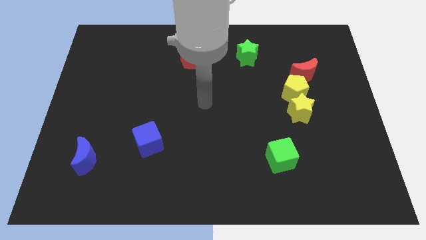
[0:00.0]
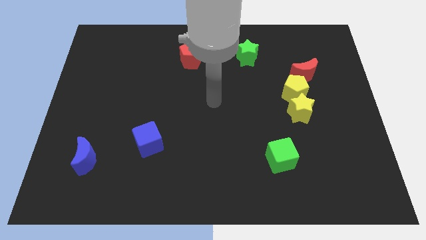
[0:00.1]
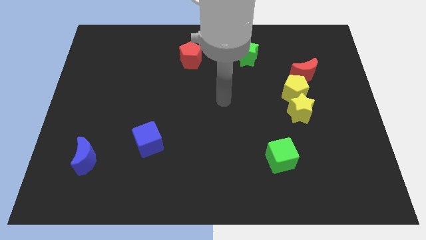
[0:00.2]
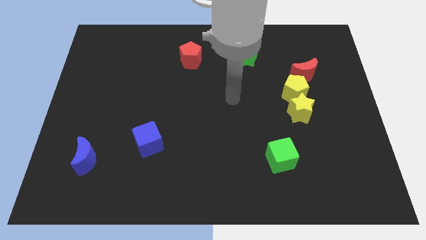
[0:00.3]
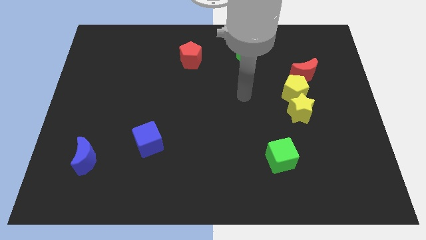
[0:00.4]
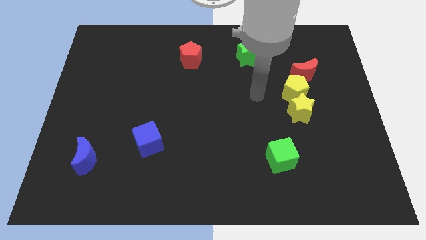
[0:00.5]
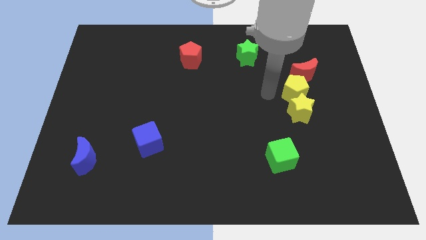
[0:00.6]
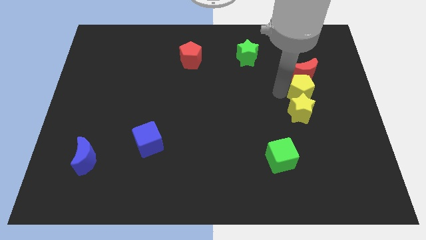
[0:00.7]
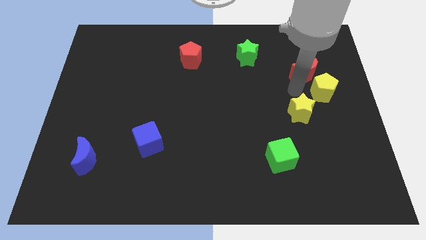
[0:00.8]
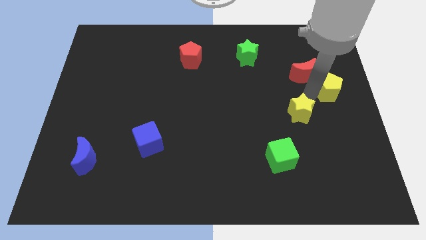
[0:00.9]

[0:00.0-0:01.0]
pull the yellow star apart from the yellow pentagon

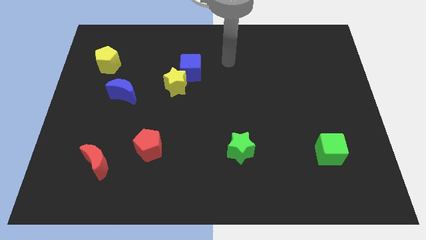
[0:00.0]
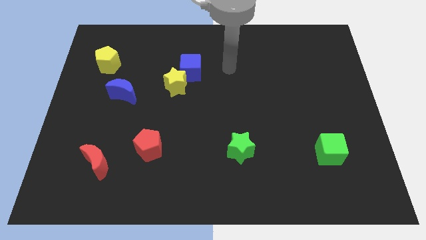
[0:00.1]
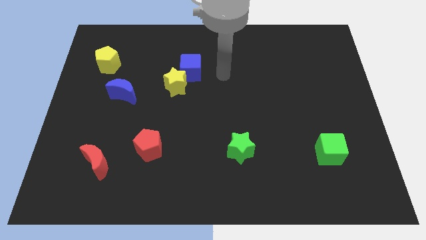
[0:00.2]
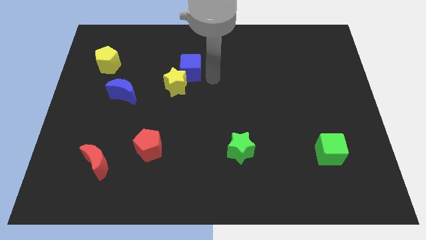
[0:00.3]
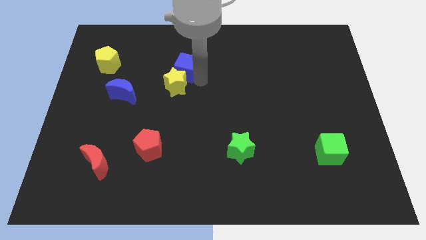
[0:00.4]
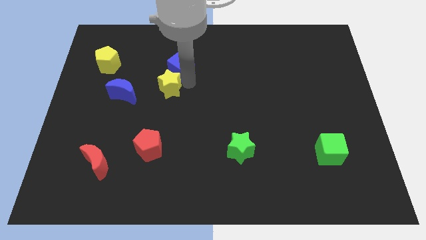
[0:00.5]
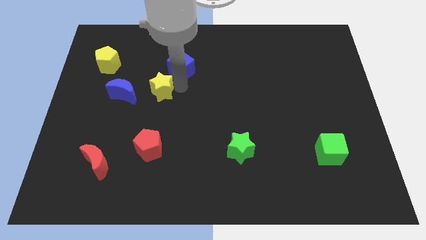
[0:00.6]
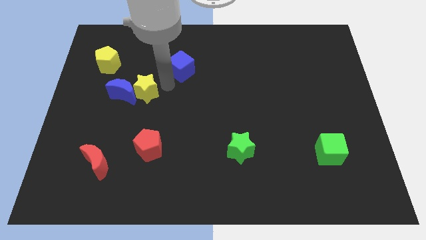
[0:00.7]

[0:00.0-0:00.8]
separate the blue cube from the yellow star

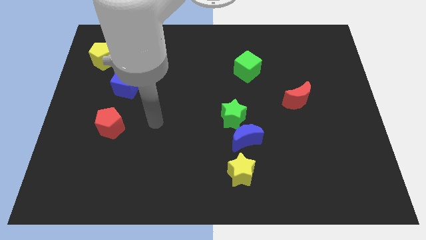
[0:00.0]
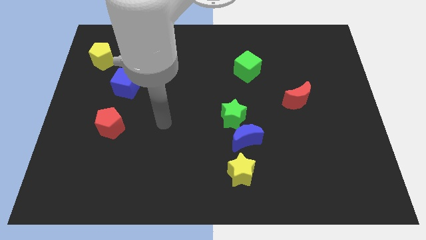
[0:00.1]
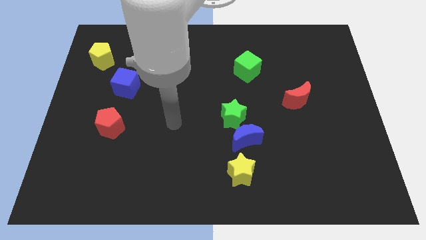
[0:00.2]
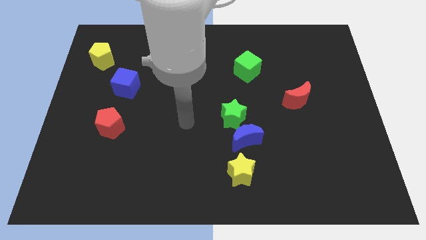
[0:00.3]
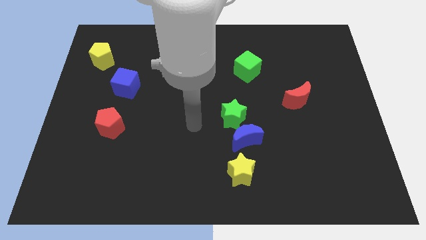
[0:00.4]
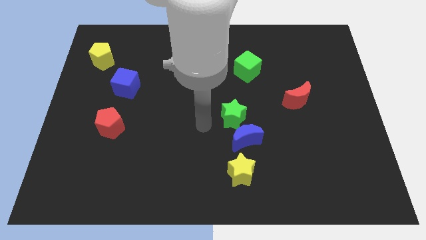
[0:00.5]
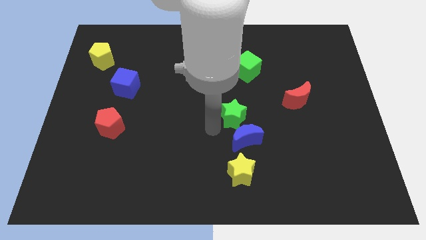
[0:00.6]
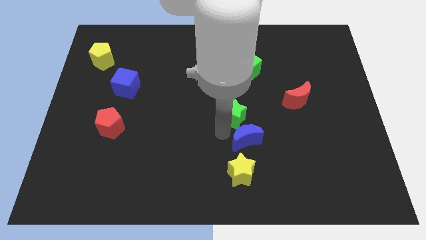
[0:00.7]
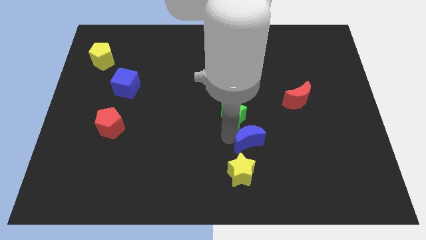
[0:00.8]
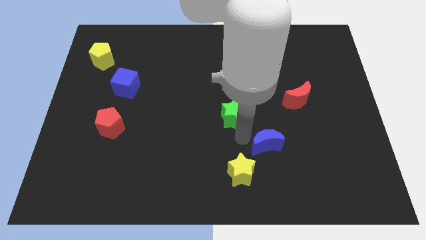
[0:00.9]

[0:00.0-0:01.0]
move the green star away from the blue moon

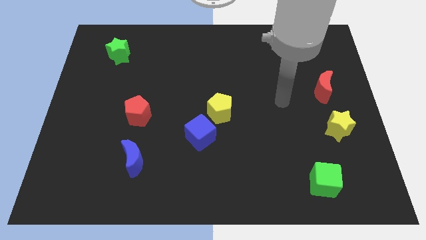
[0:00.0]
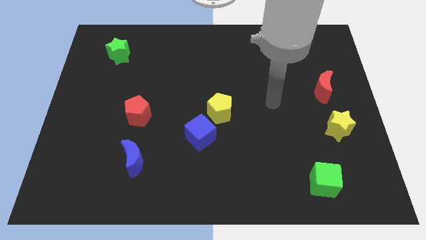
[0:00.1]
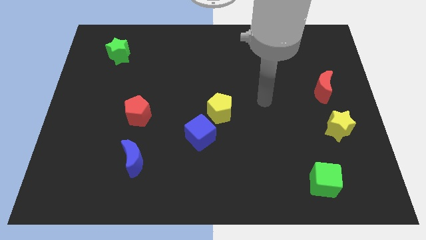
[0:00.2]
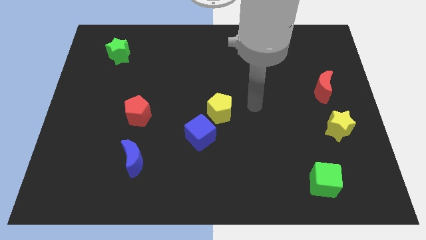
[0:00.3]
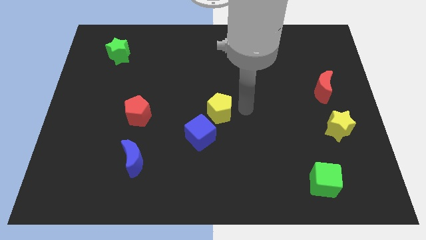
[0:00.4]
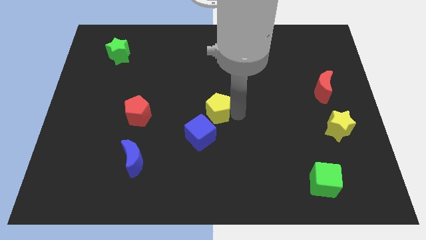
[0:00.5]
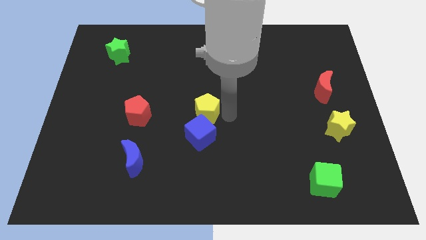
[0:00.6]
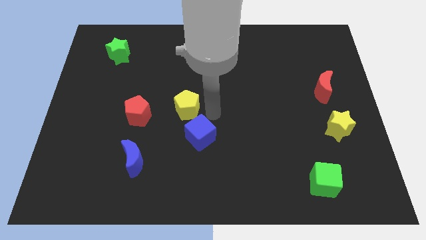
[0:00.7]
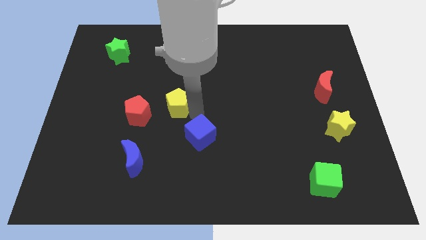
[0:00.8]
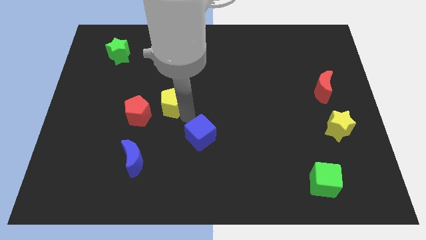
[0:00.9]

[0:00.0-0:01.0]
pull the blue cube apart from the yellow pentagon

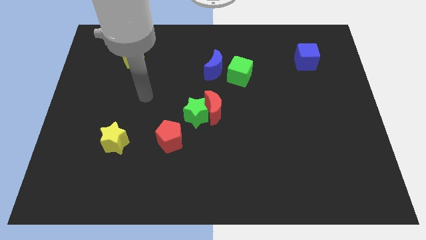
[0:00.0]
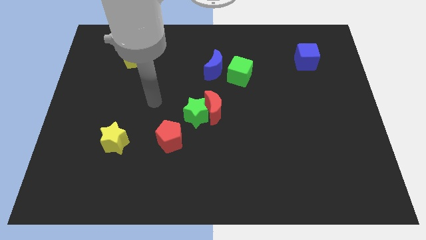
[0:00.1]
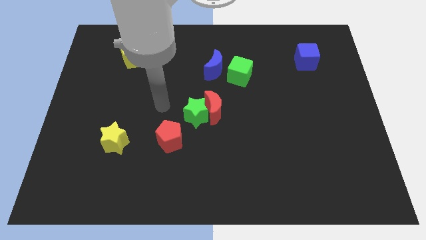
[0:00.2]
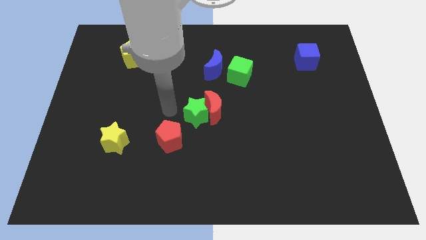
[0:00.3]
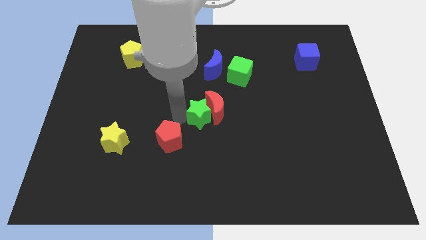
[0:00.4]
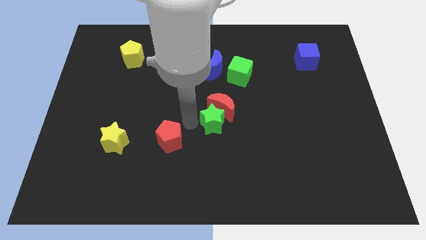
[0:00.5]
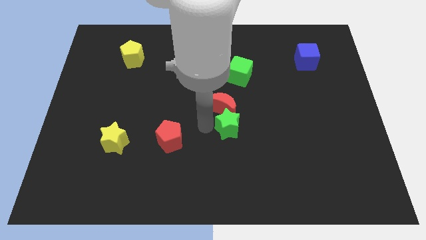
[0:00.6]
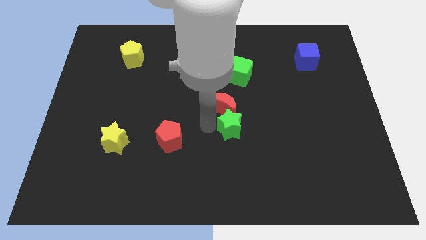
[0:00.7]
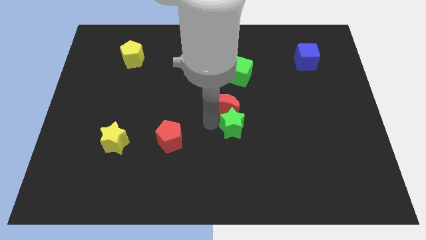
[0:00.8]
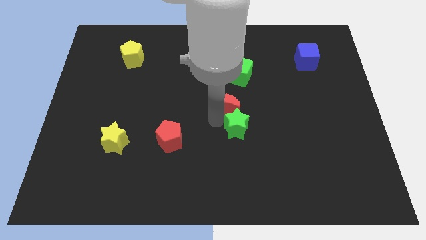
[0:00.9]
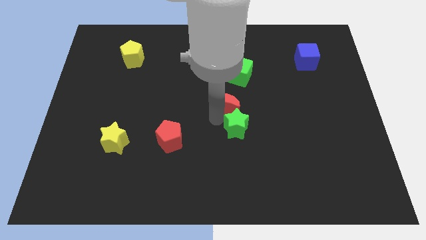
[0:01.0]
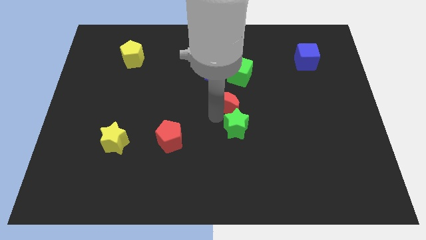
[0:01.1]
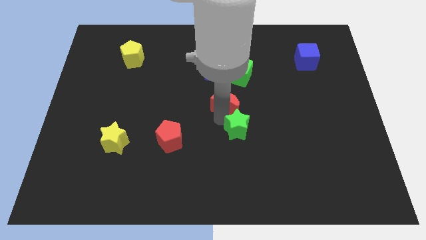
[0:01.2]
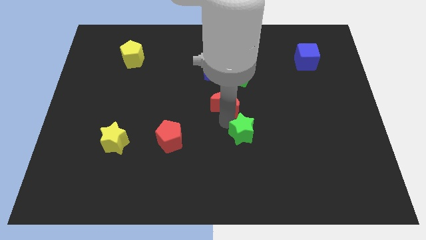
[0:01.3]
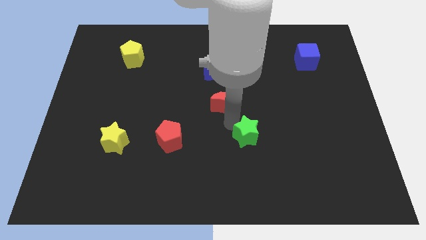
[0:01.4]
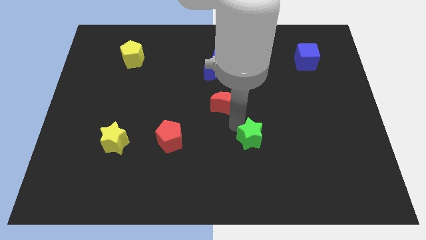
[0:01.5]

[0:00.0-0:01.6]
move the red moon away from the green star

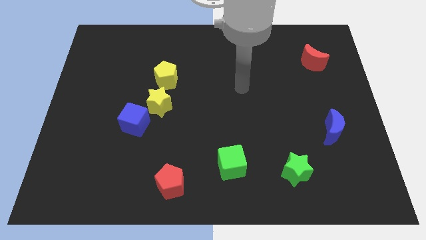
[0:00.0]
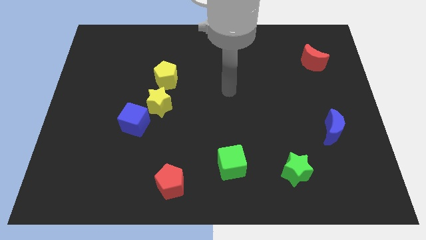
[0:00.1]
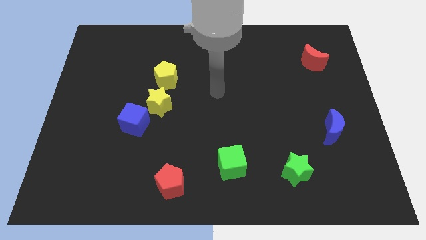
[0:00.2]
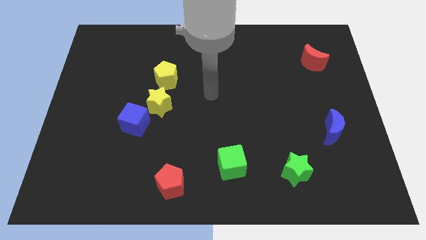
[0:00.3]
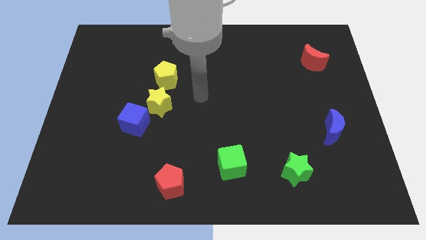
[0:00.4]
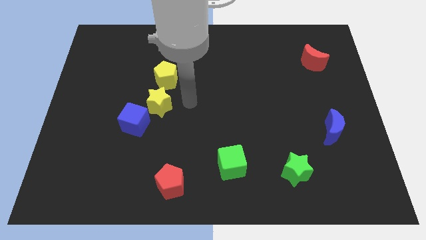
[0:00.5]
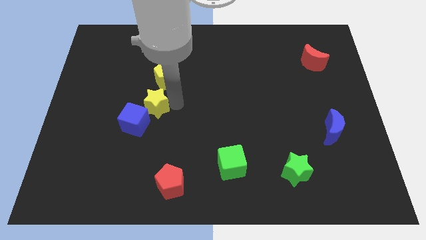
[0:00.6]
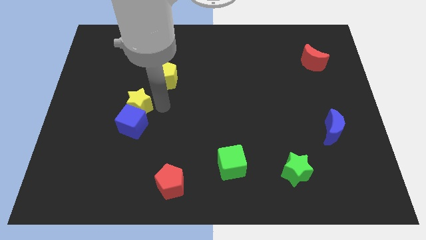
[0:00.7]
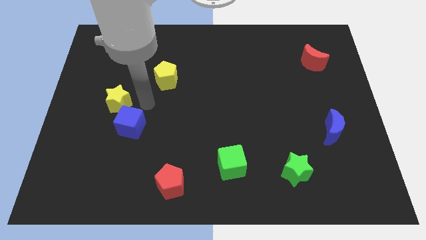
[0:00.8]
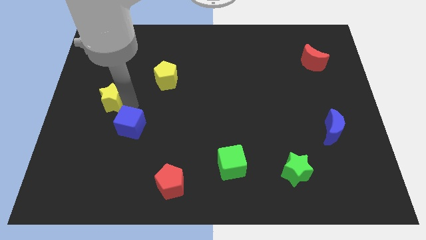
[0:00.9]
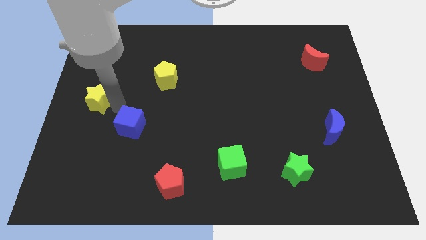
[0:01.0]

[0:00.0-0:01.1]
move the blue cube away from the yellow star

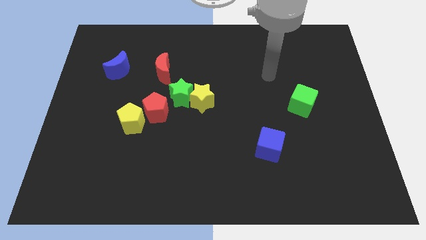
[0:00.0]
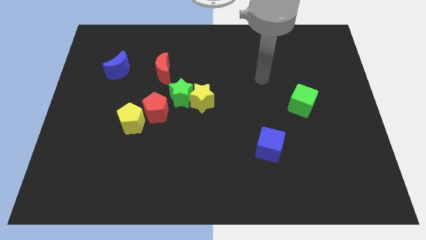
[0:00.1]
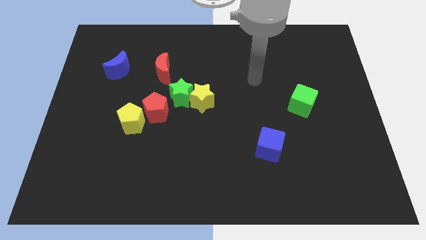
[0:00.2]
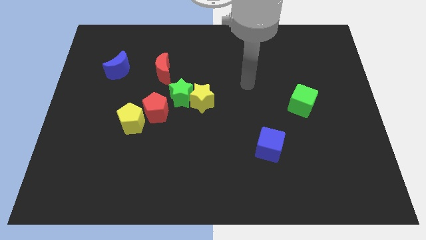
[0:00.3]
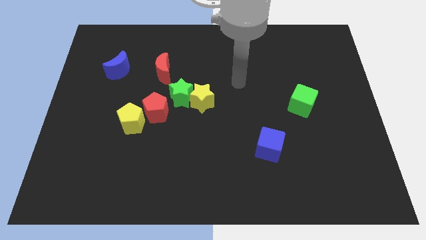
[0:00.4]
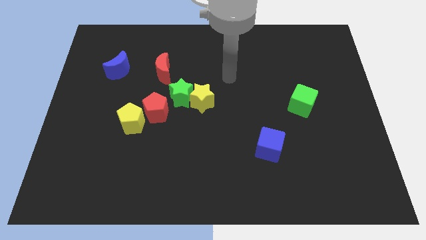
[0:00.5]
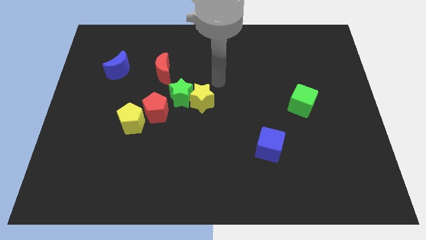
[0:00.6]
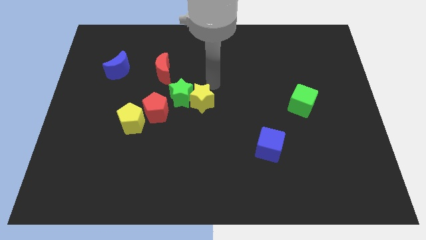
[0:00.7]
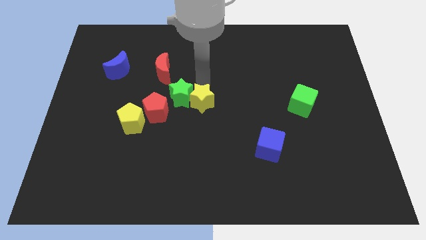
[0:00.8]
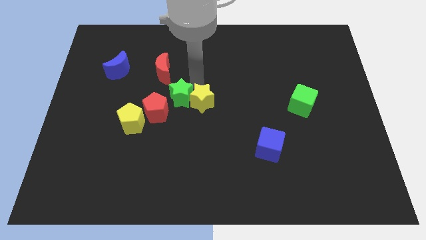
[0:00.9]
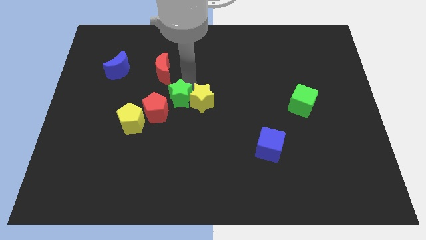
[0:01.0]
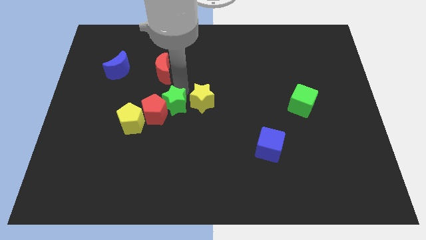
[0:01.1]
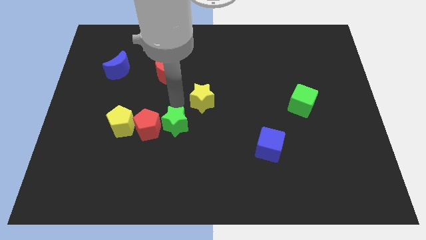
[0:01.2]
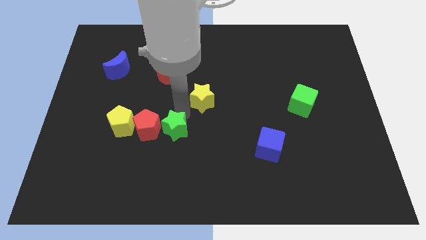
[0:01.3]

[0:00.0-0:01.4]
separate the yellow star from the green star

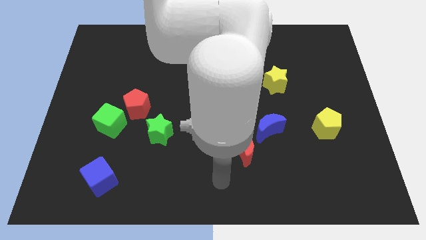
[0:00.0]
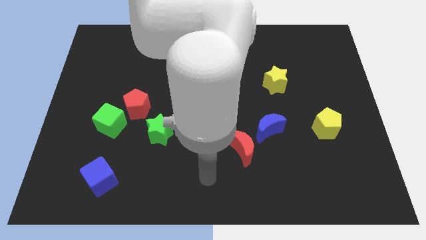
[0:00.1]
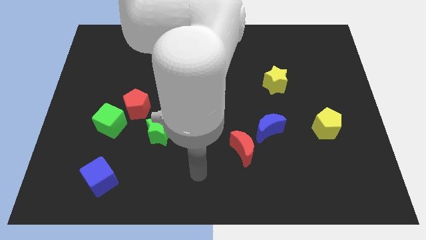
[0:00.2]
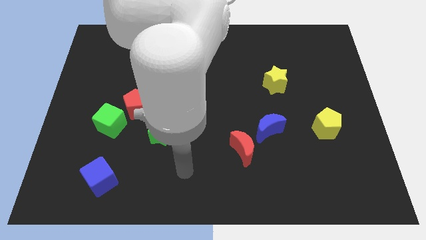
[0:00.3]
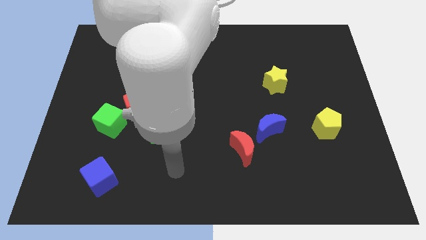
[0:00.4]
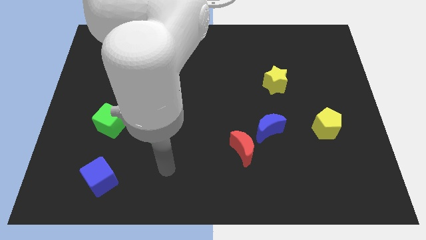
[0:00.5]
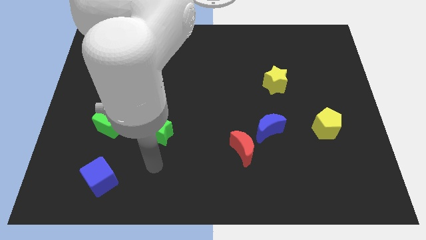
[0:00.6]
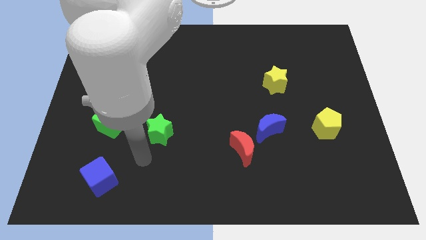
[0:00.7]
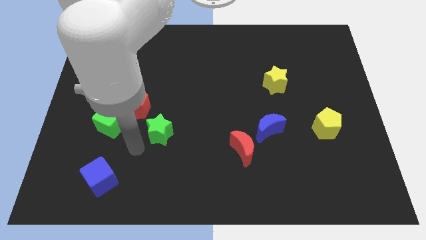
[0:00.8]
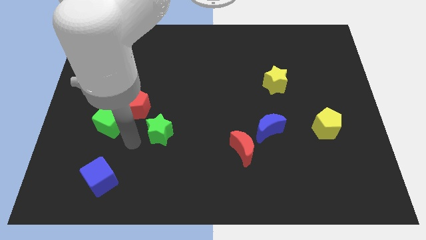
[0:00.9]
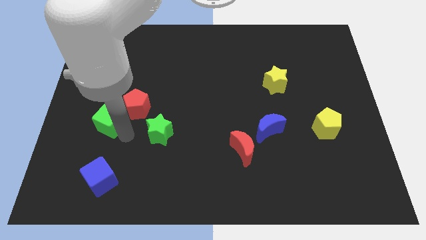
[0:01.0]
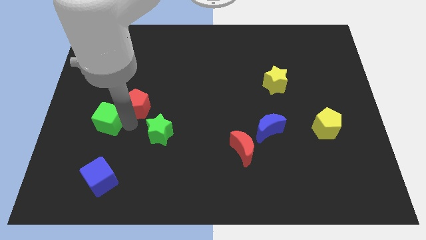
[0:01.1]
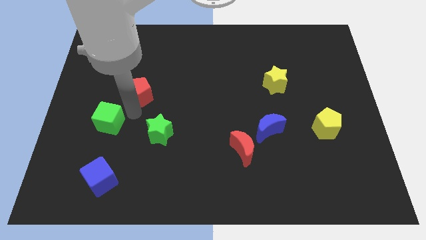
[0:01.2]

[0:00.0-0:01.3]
separate the green cube from the red pentagon

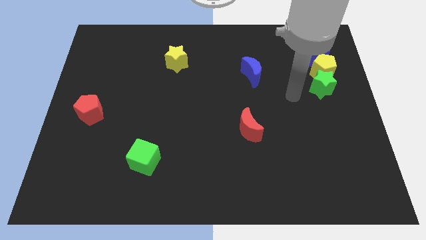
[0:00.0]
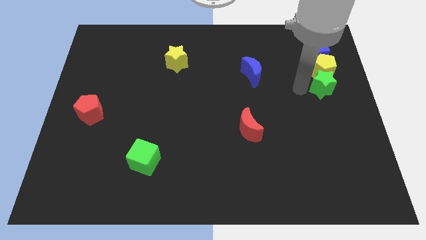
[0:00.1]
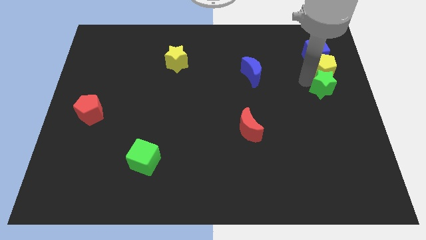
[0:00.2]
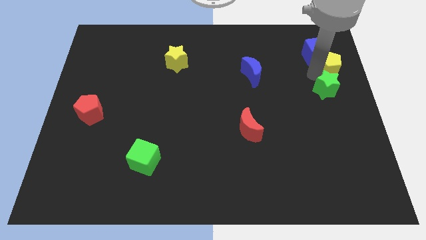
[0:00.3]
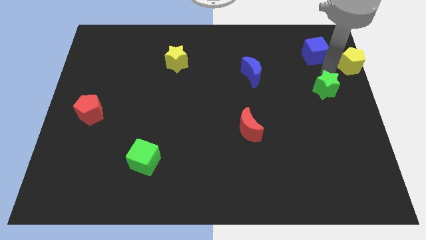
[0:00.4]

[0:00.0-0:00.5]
pull the green star apart from the yellow pentagon
